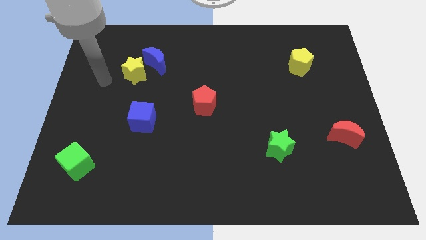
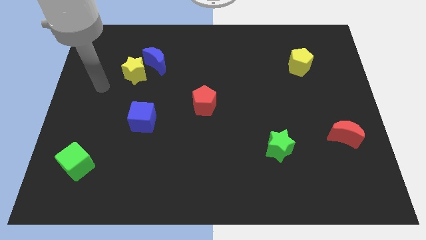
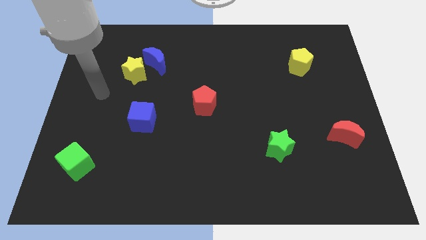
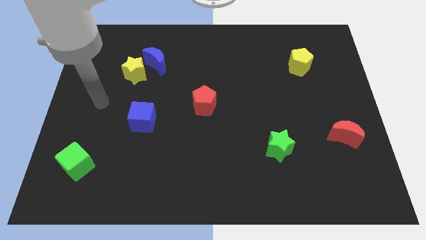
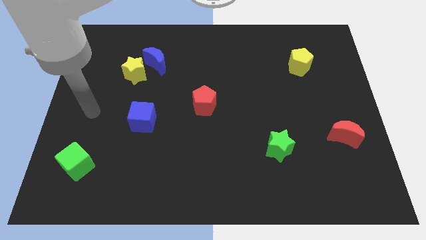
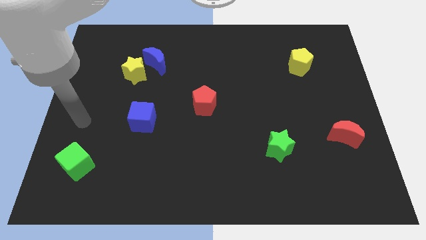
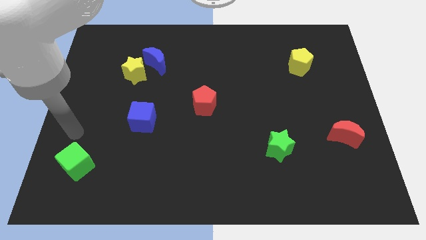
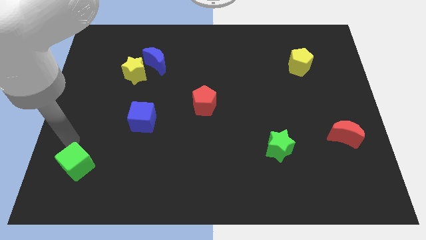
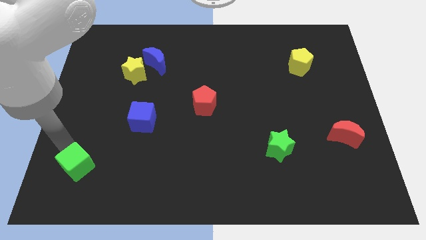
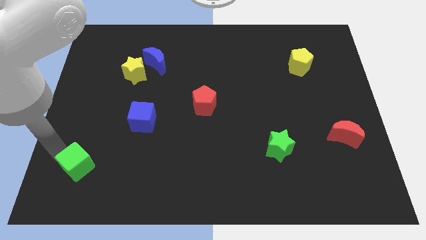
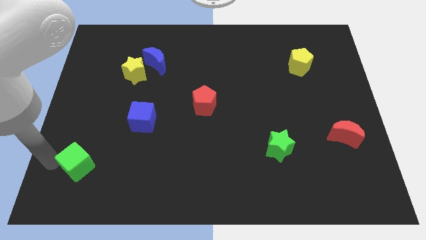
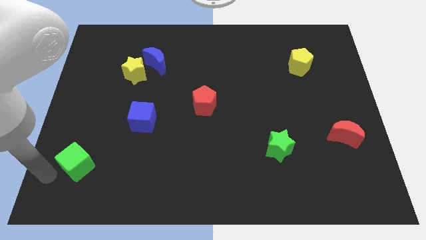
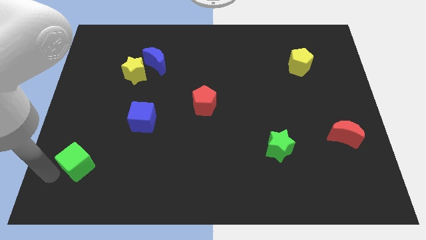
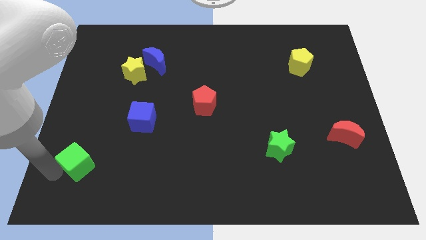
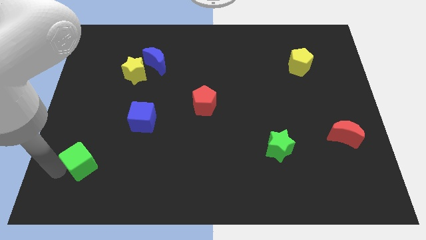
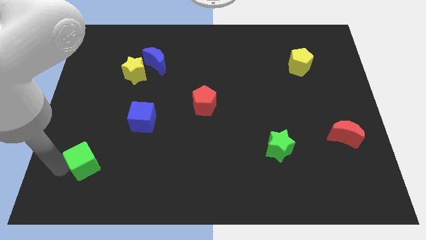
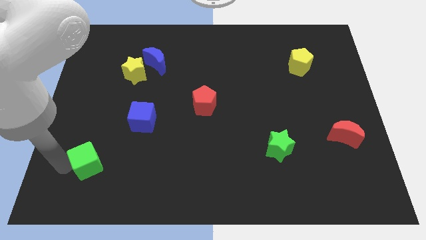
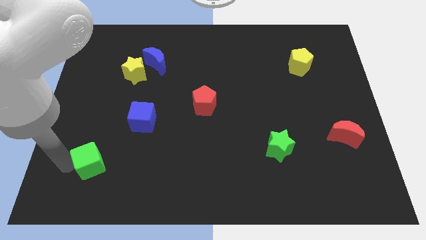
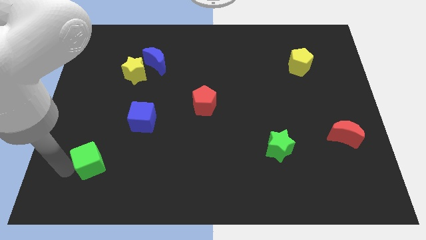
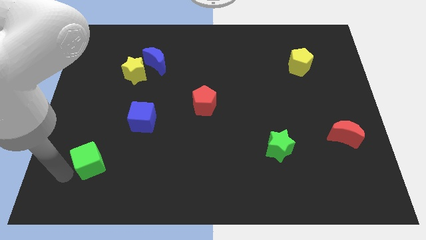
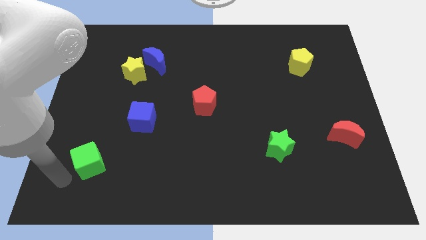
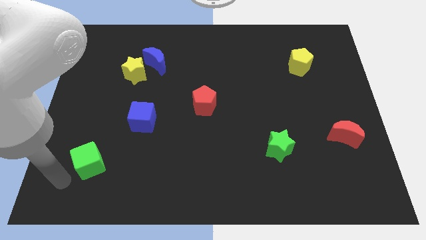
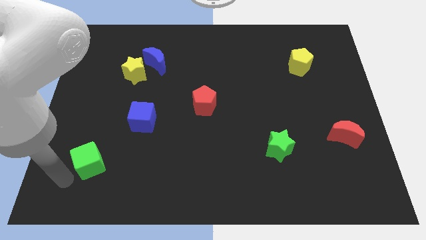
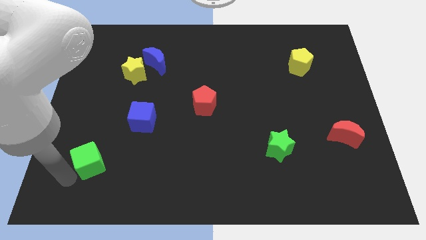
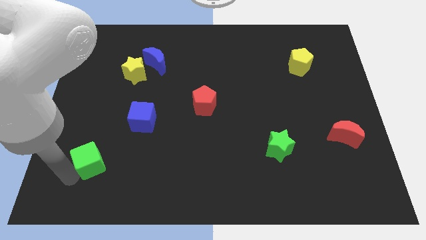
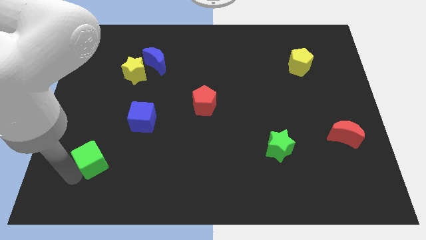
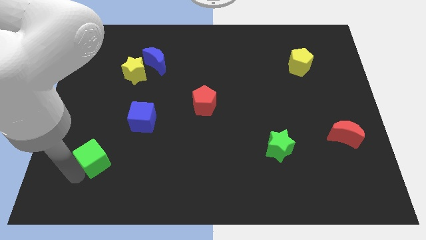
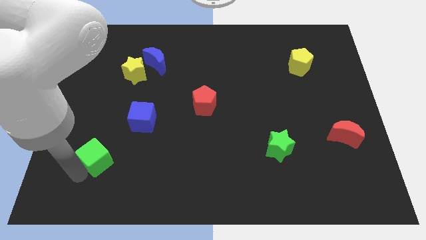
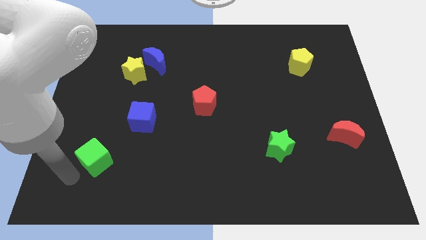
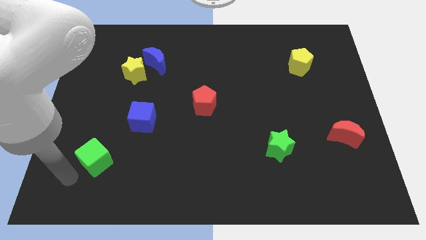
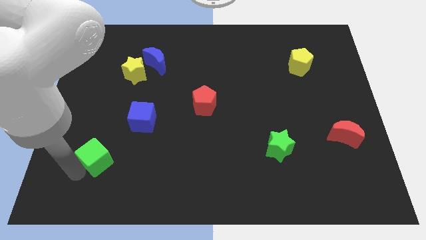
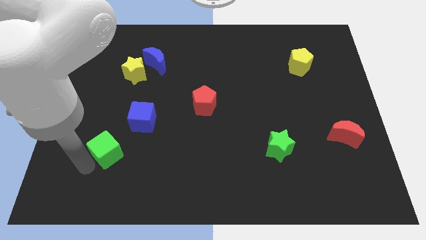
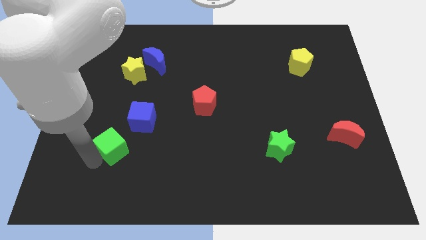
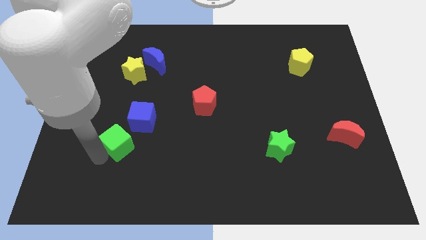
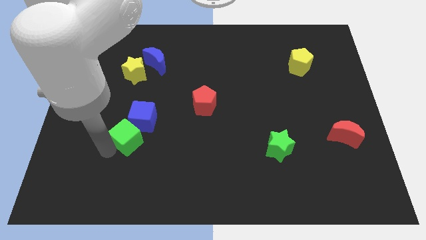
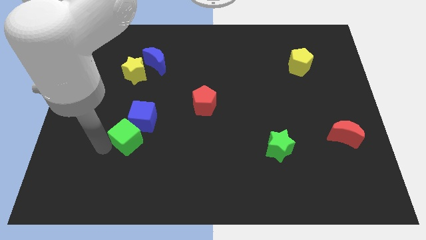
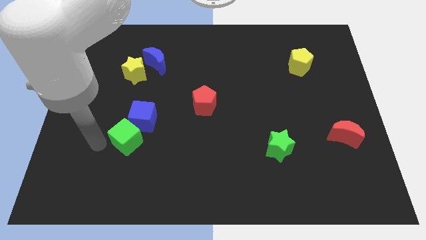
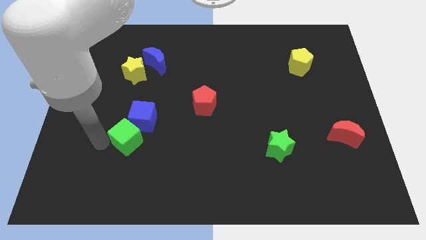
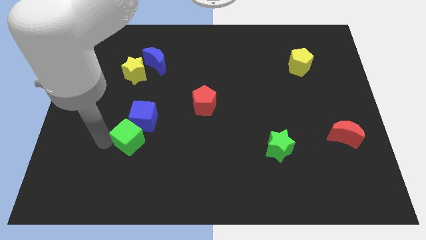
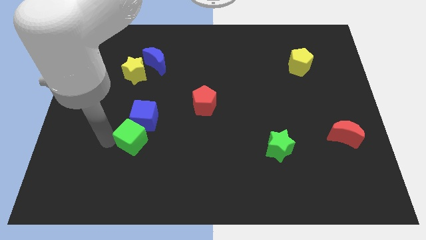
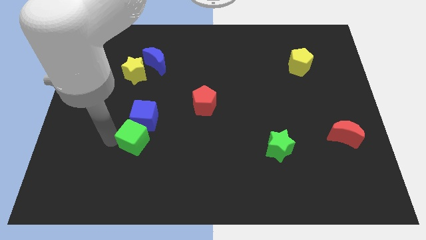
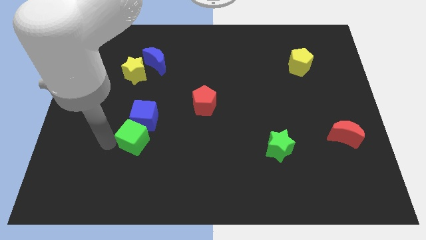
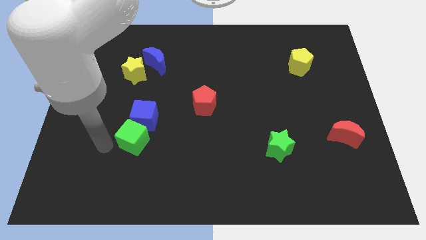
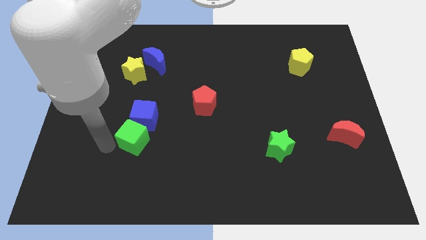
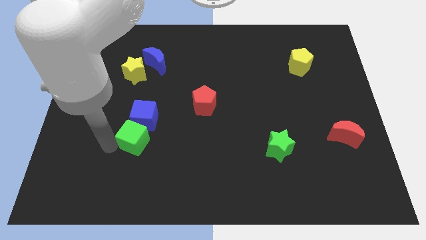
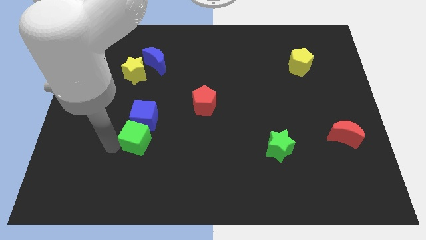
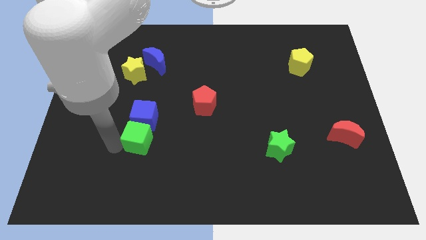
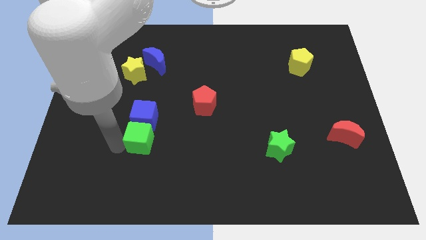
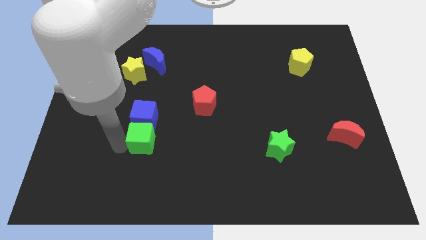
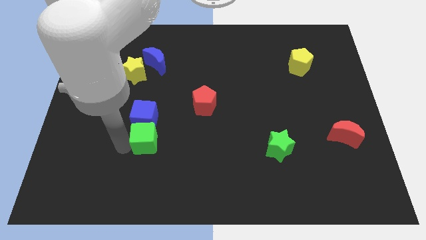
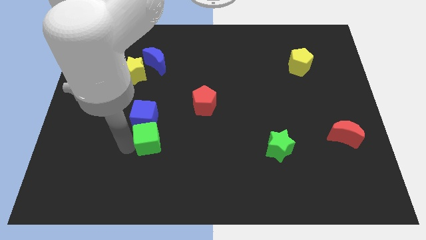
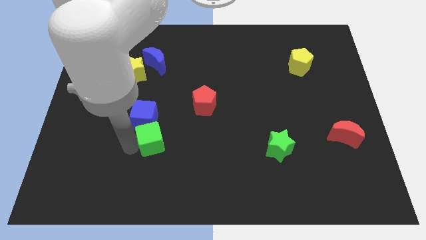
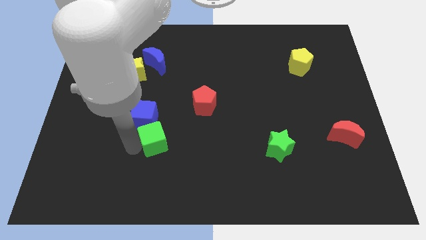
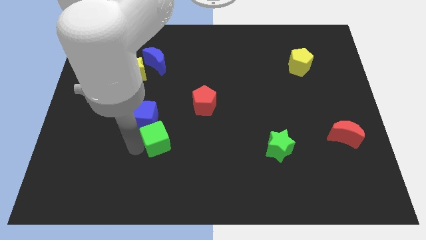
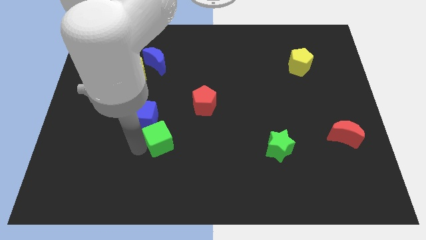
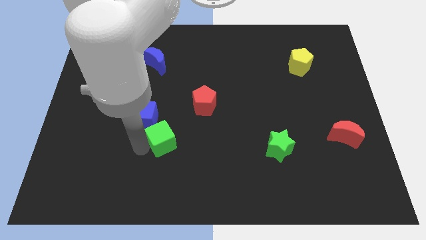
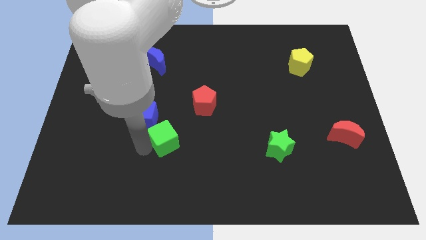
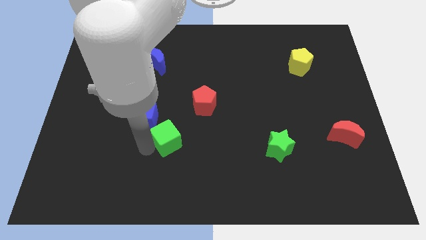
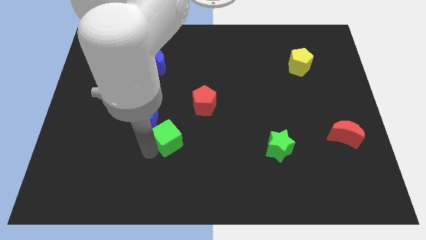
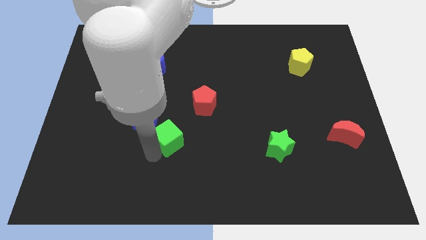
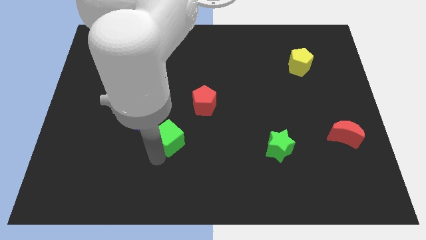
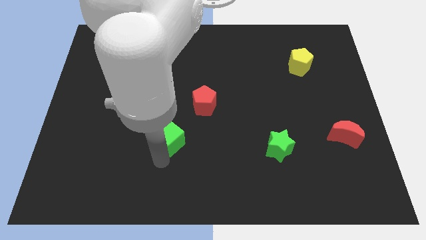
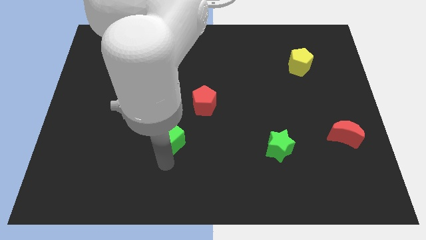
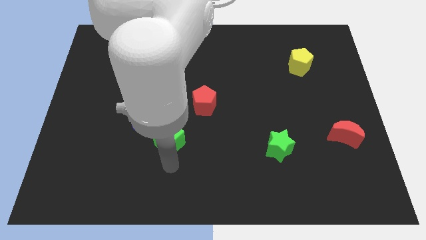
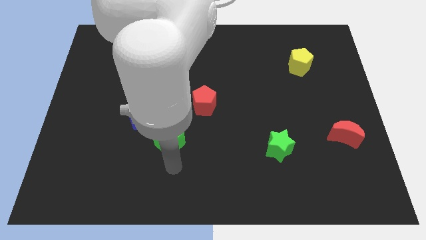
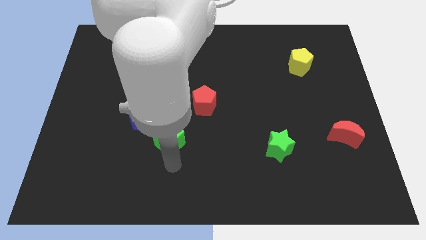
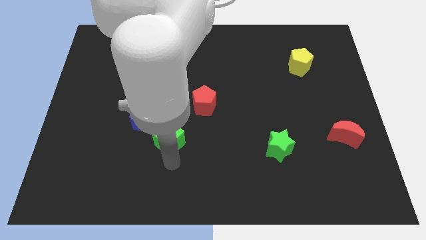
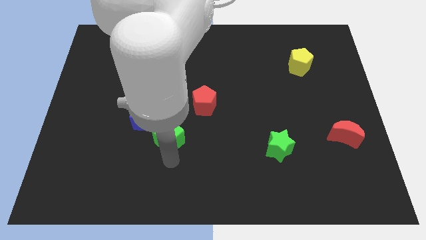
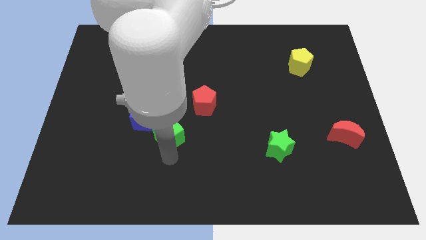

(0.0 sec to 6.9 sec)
move the green cube right of the blue cube

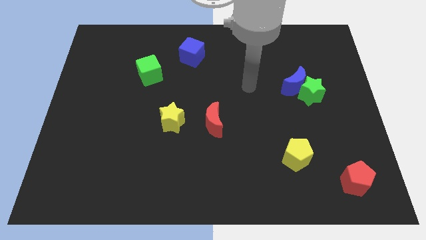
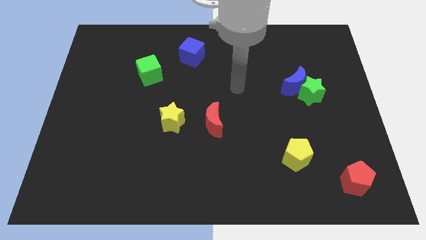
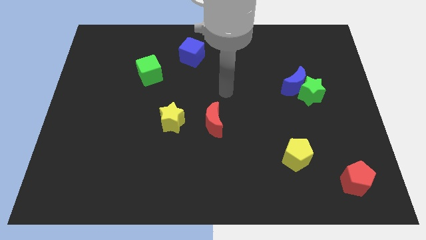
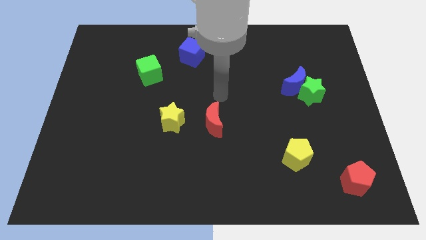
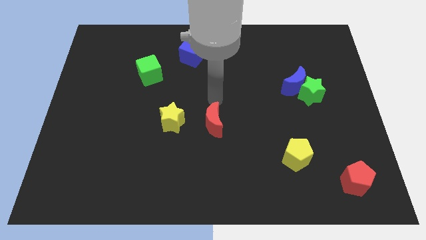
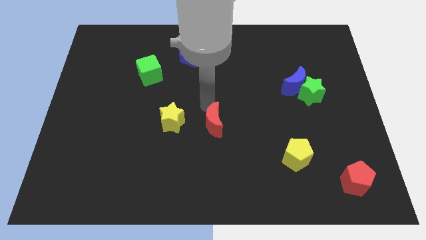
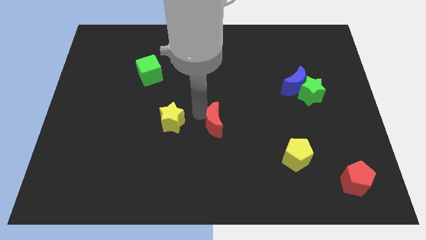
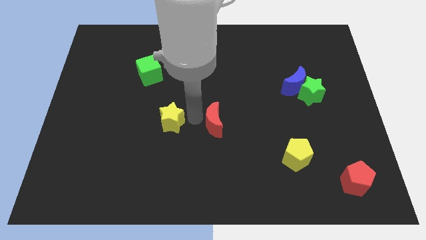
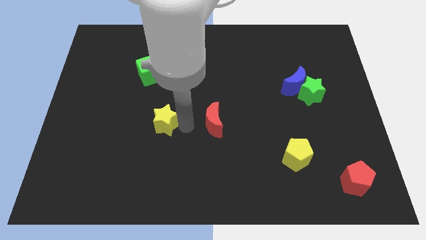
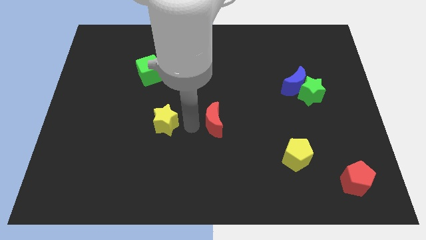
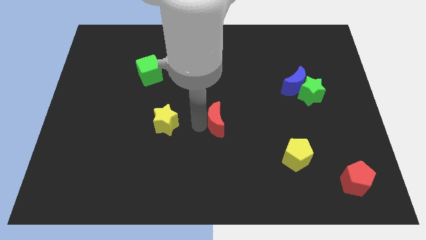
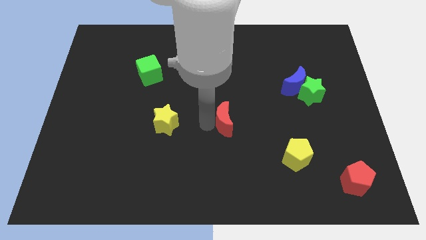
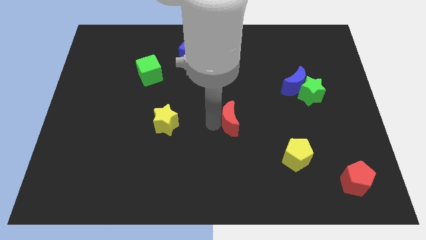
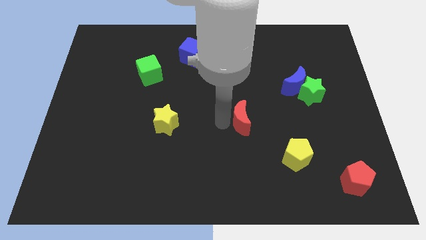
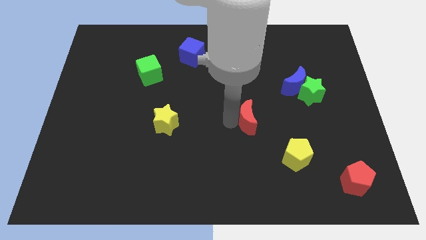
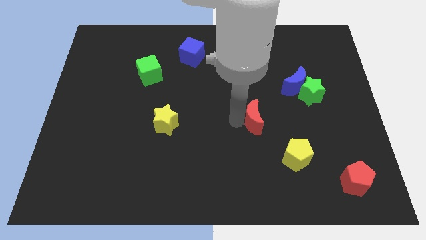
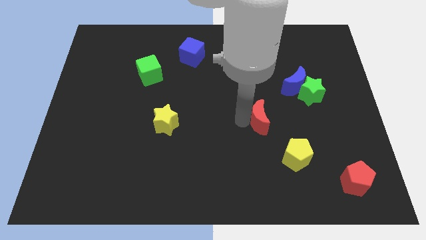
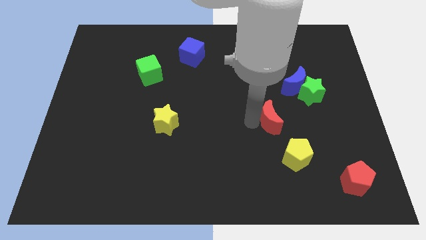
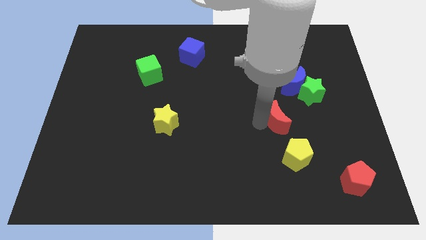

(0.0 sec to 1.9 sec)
slide the red moon to the bottom left side of the green star
